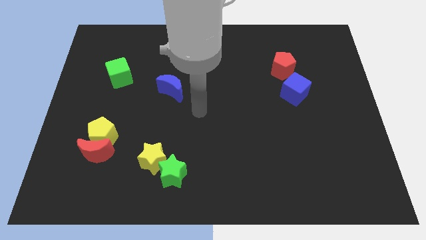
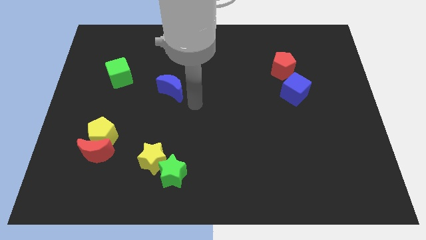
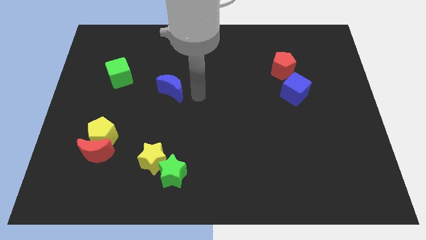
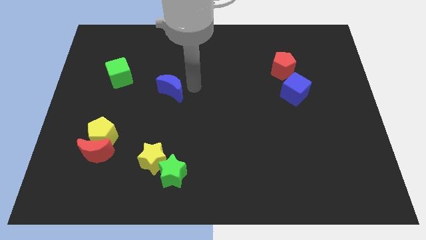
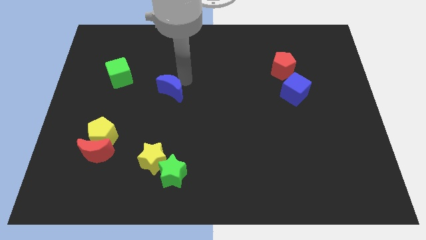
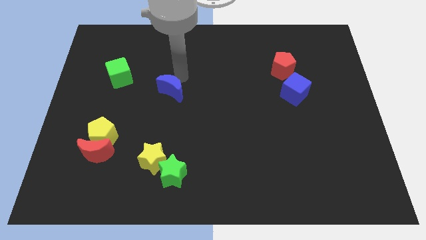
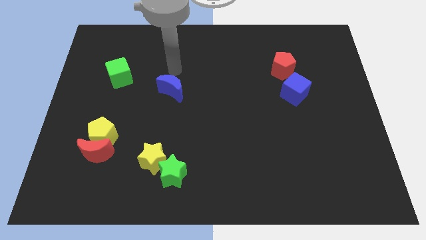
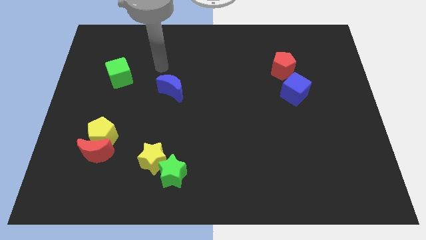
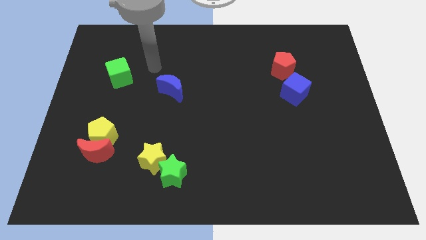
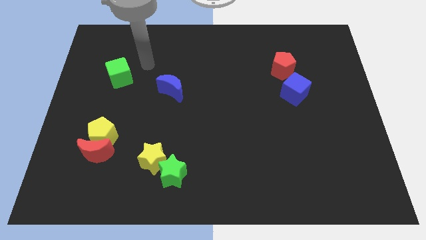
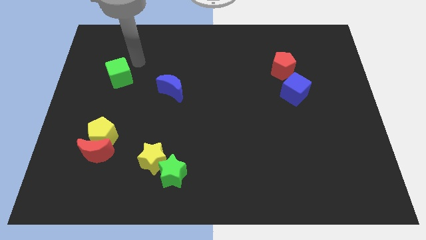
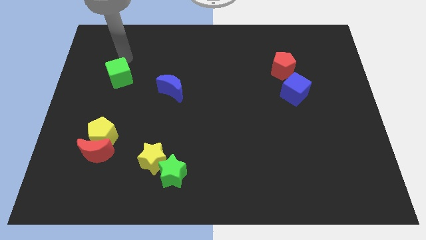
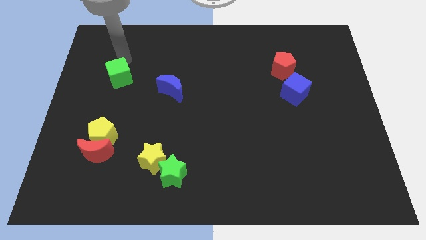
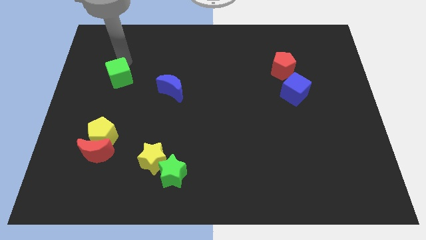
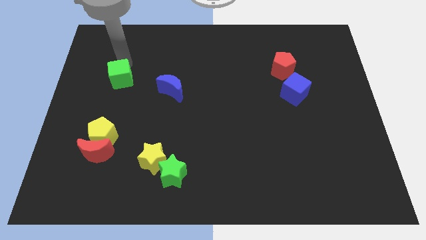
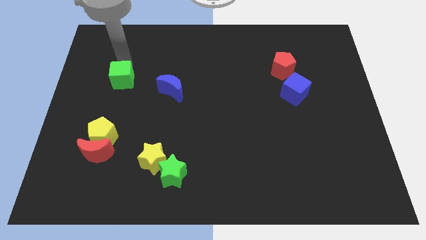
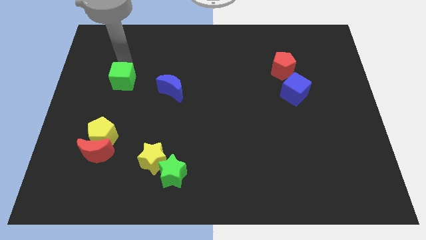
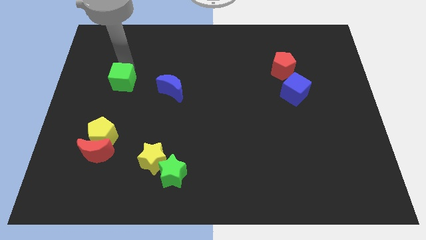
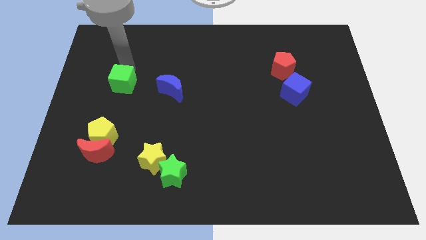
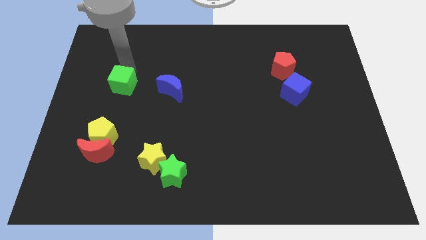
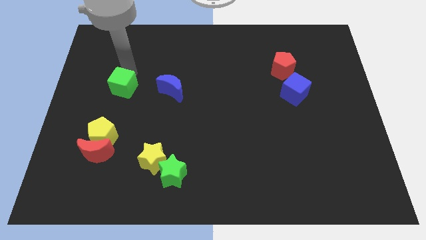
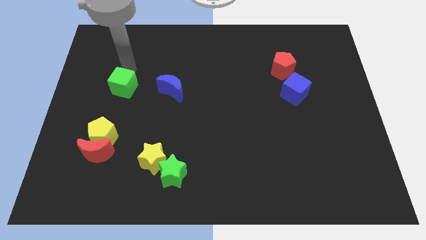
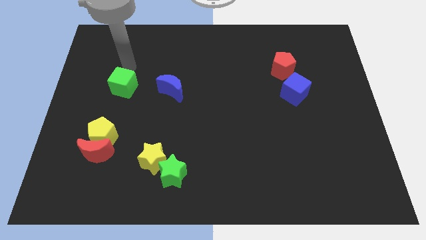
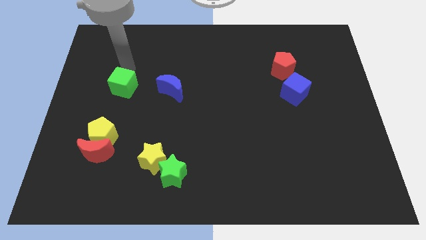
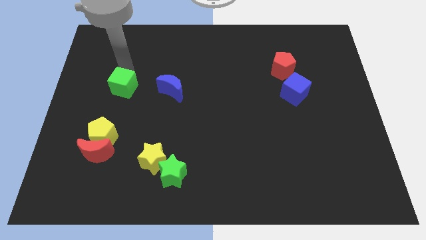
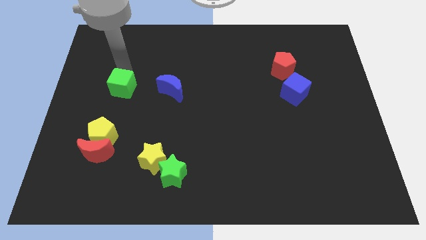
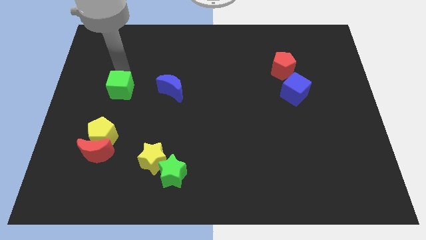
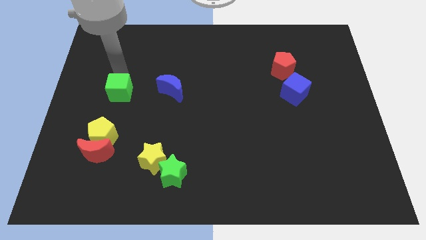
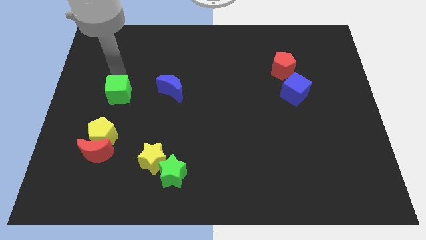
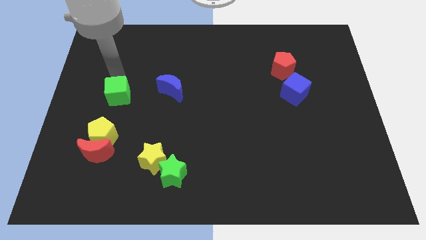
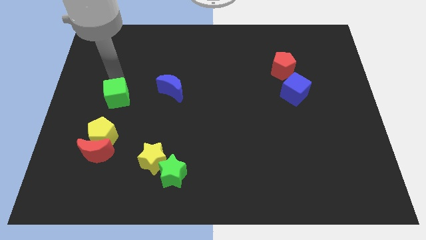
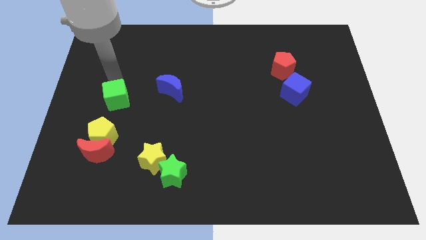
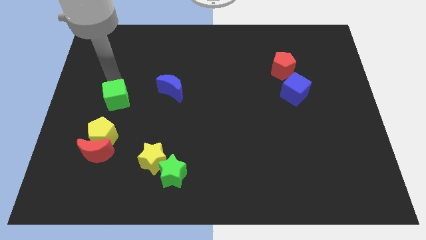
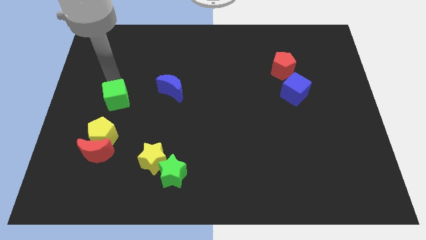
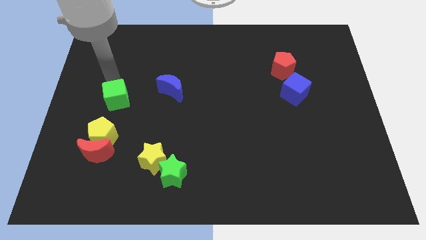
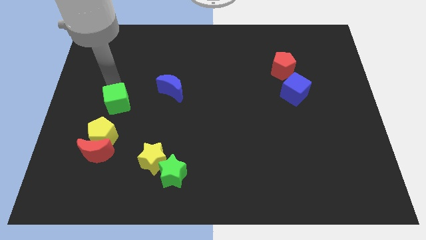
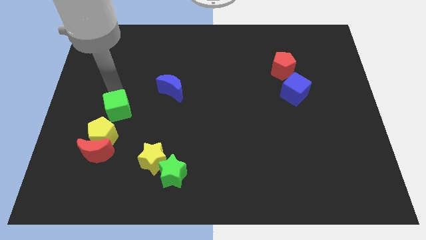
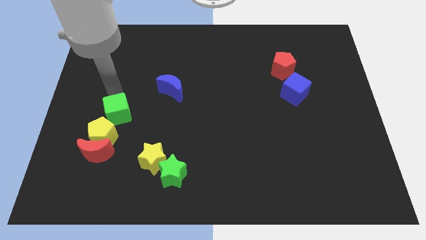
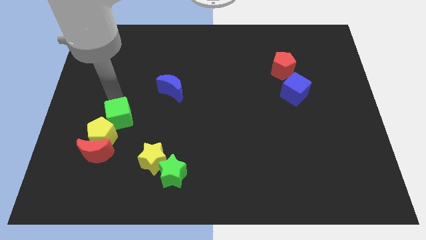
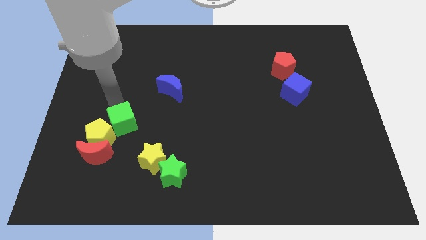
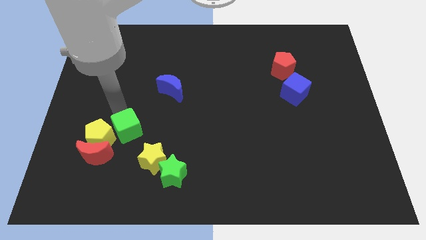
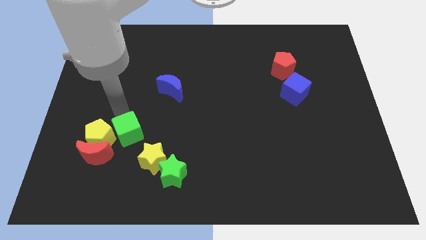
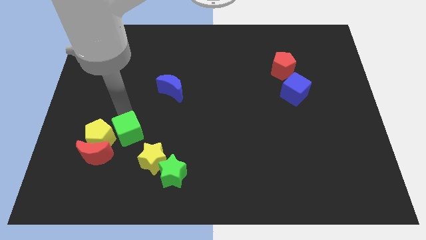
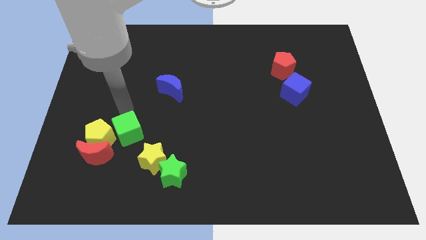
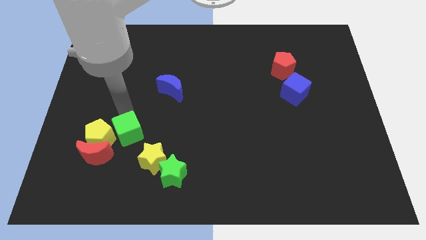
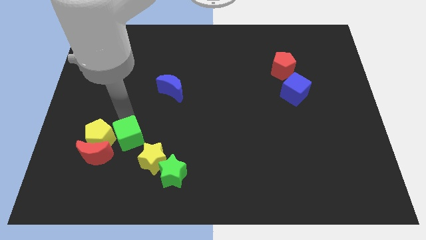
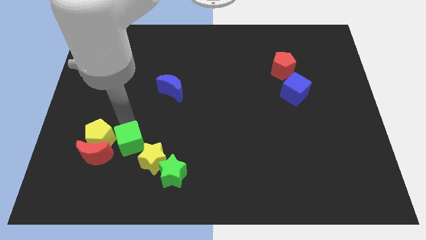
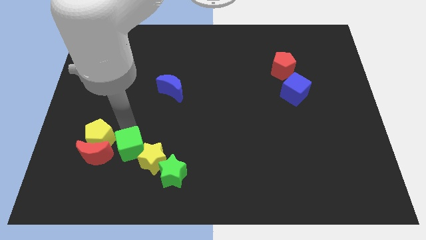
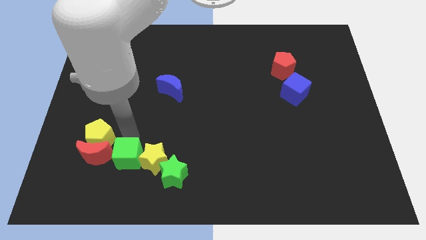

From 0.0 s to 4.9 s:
slide the green cube to the bottom left of the yellow star

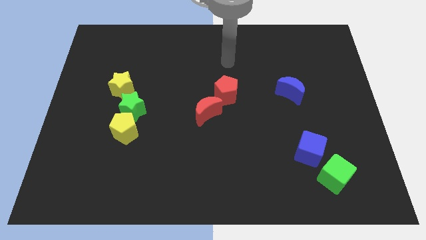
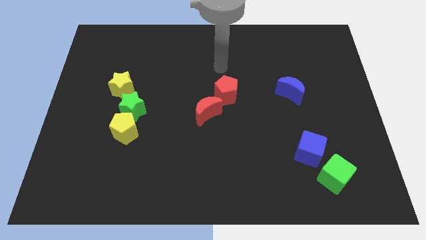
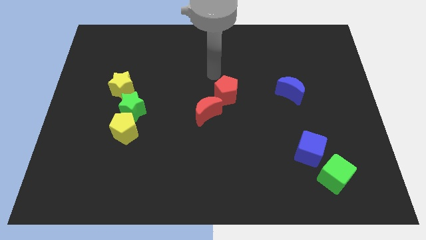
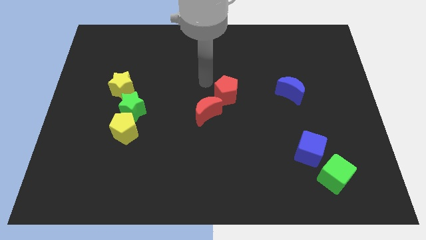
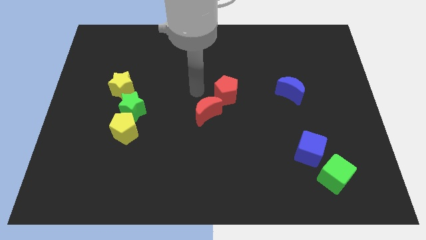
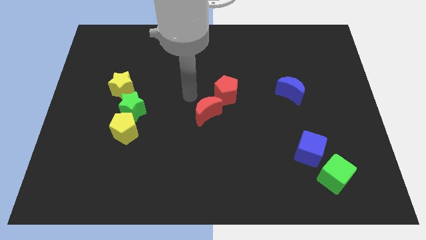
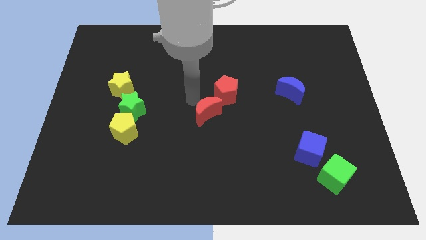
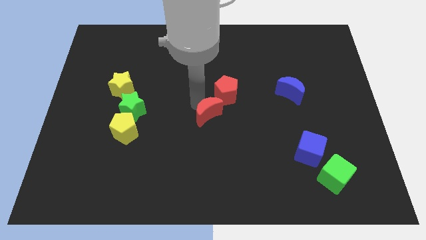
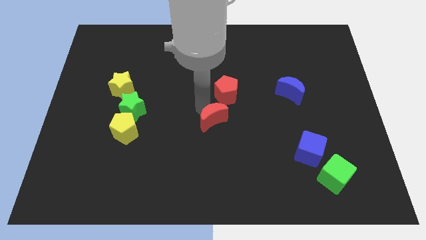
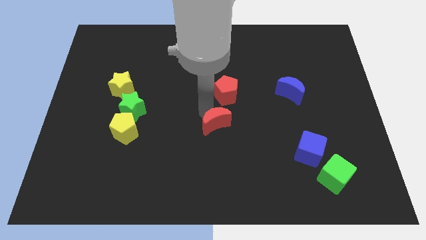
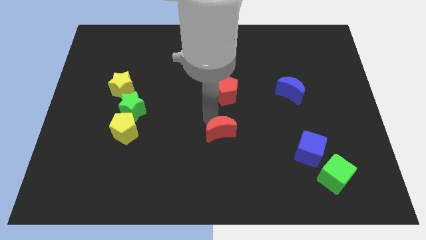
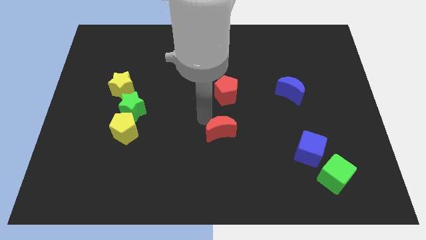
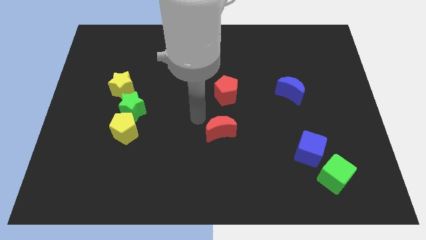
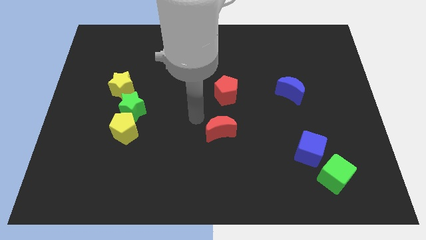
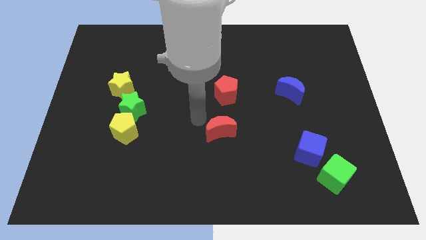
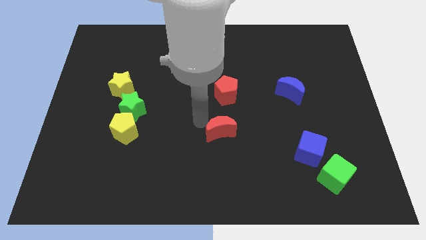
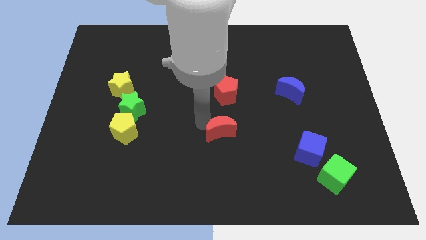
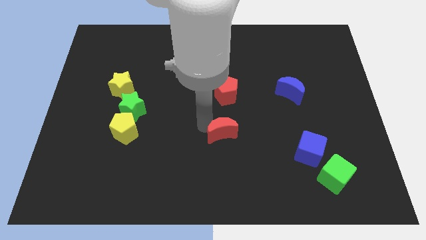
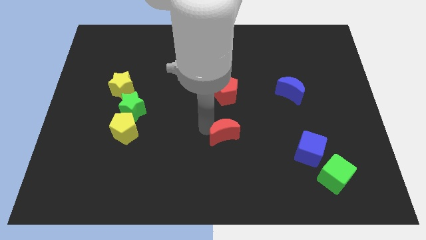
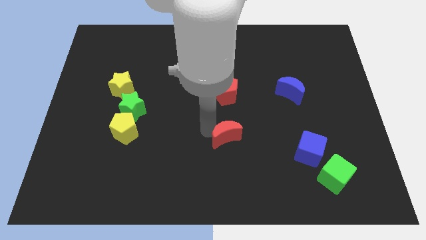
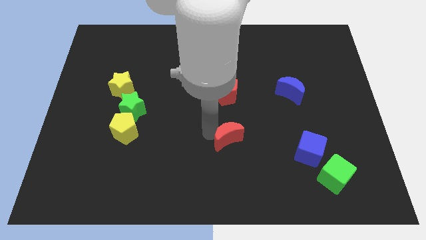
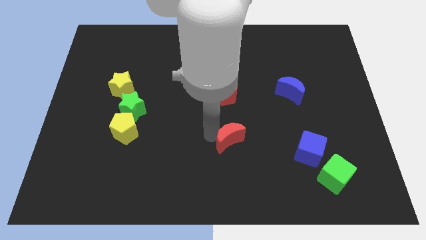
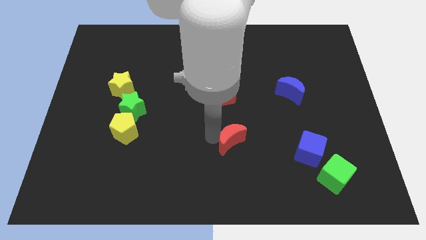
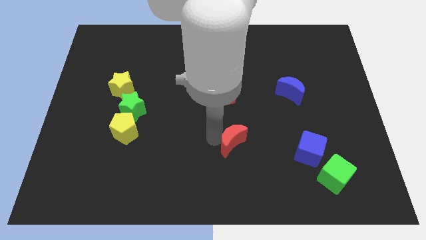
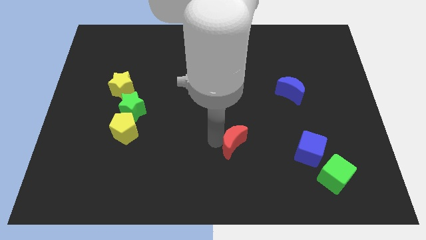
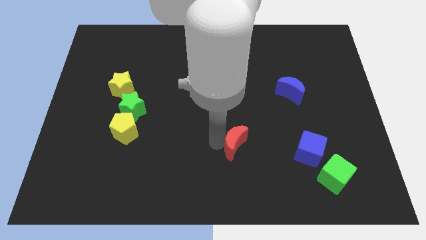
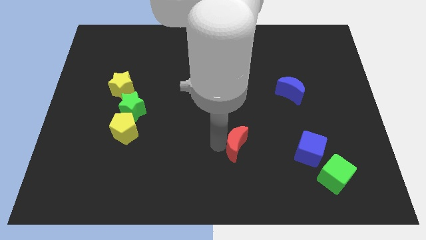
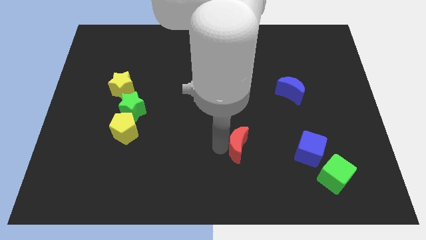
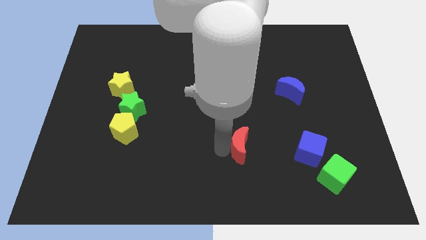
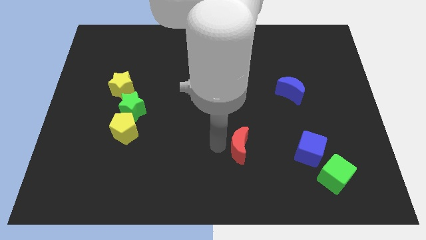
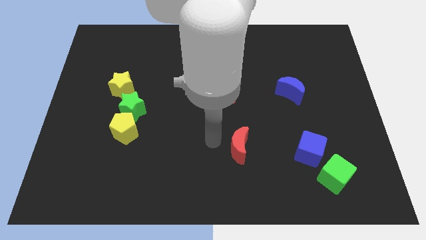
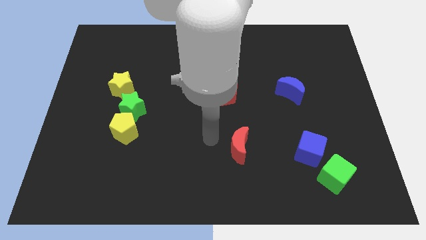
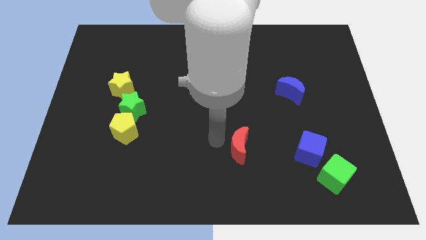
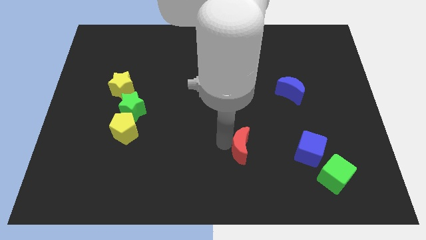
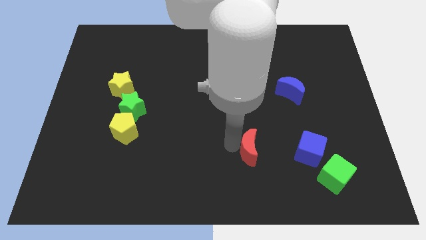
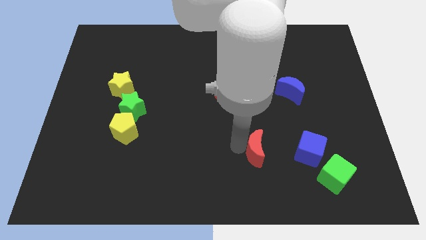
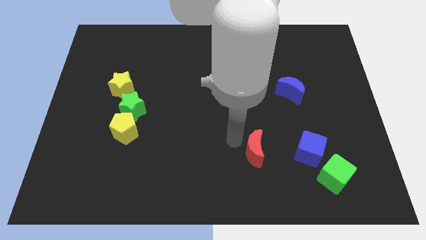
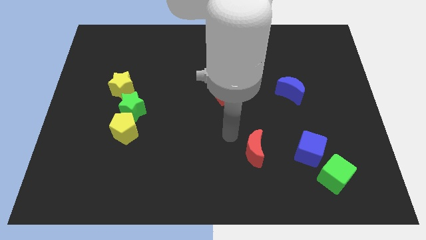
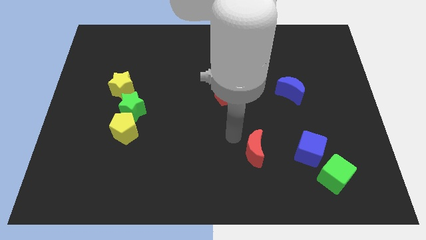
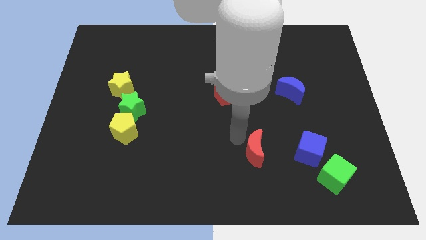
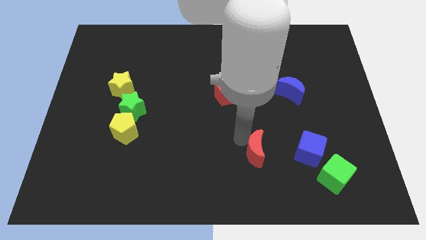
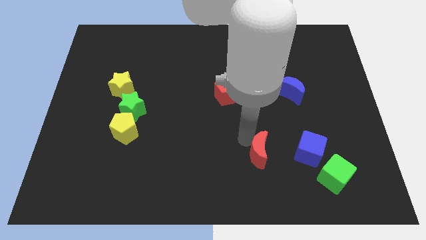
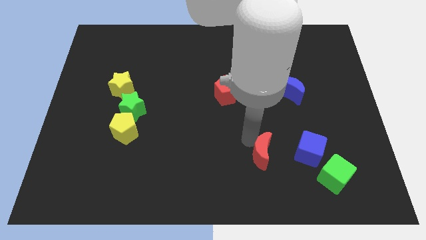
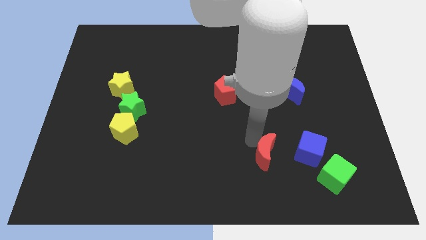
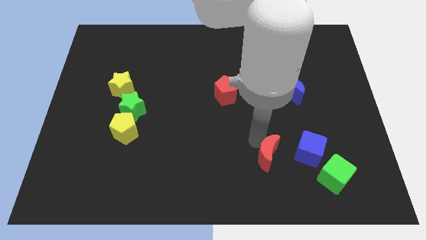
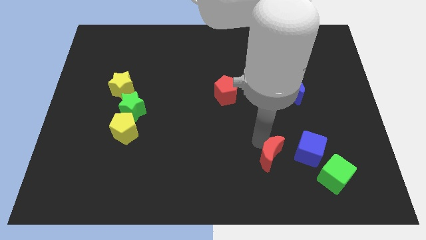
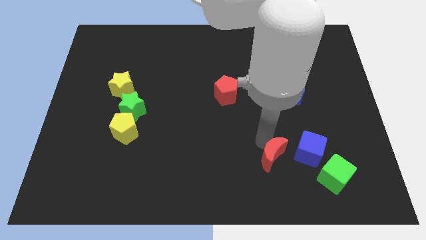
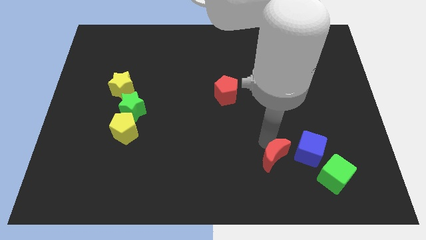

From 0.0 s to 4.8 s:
put the red moon diagonally down and to the left of the blue cube
